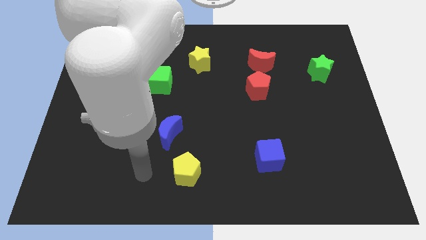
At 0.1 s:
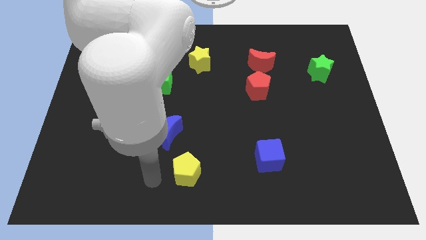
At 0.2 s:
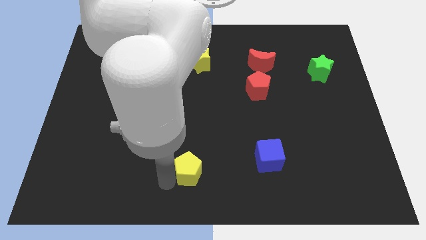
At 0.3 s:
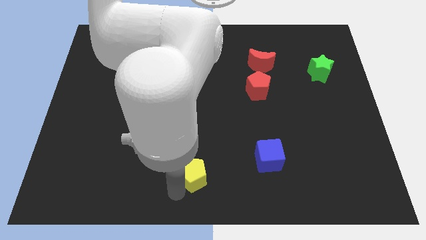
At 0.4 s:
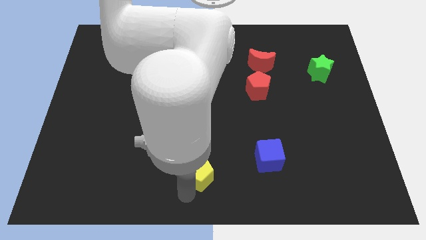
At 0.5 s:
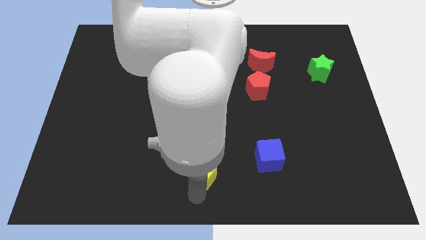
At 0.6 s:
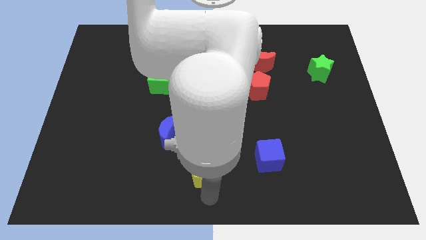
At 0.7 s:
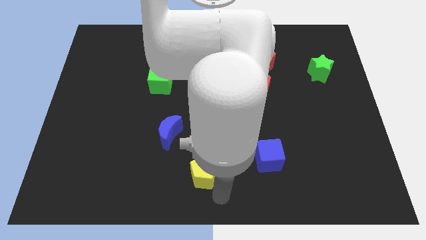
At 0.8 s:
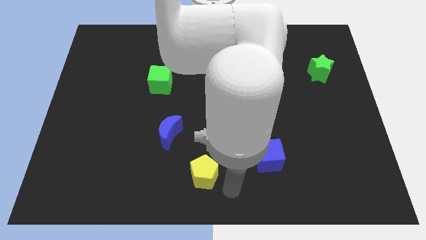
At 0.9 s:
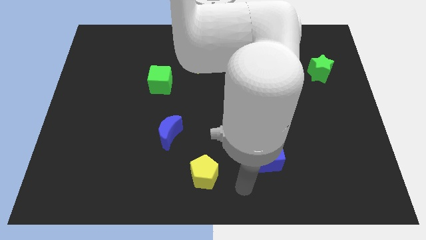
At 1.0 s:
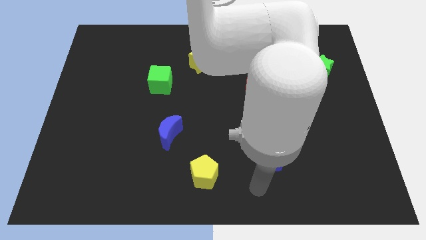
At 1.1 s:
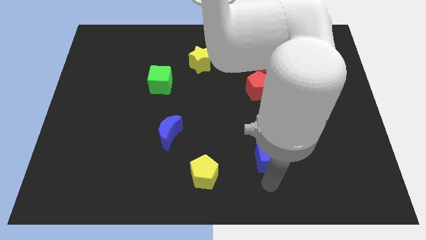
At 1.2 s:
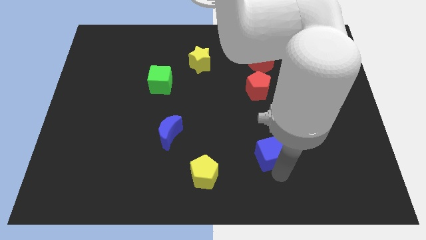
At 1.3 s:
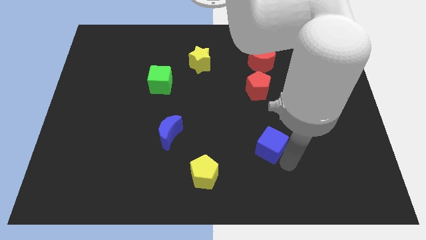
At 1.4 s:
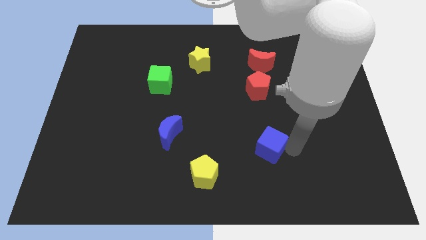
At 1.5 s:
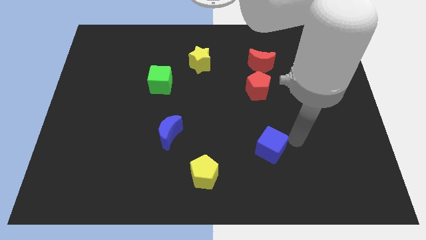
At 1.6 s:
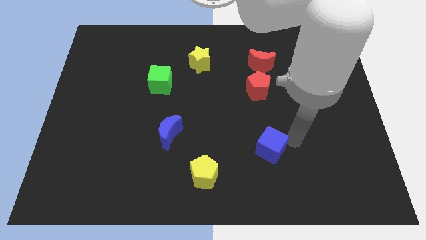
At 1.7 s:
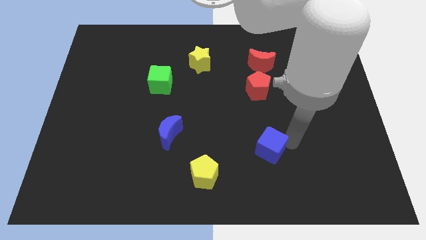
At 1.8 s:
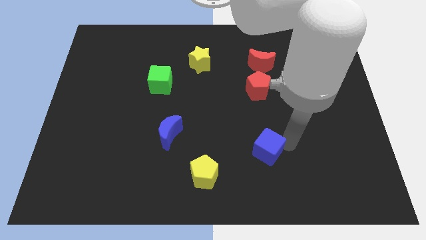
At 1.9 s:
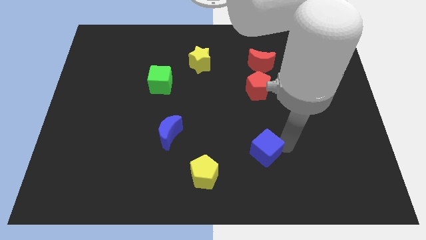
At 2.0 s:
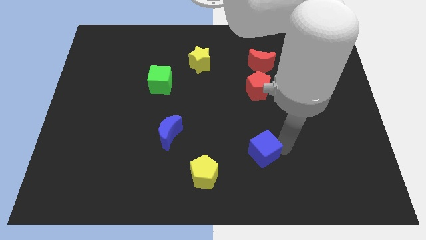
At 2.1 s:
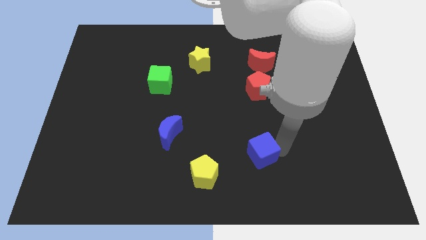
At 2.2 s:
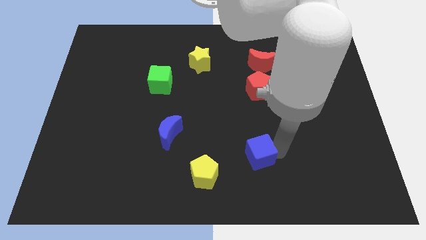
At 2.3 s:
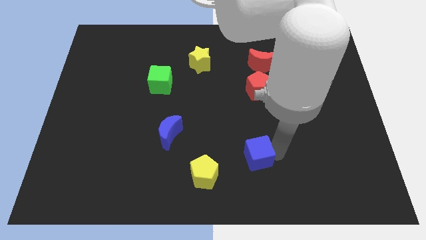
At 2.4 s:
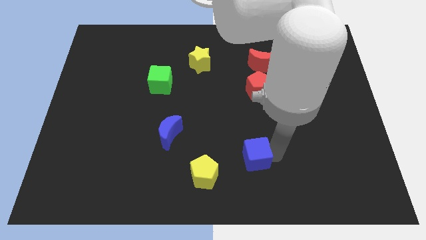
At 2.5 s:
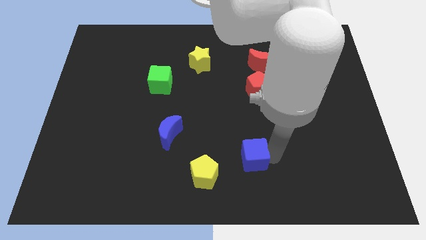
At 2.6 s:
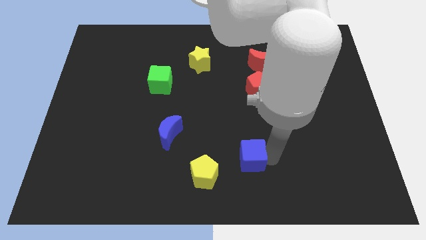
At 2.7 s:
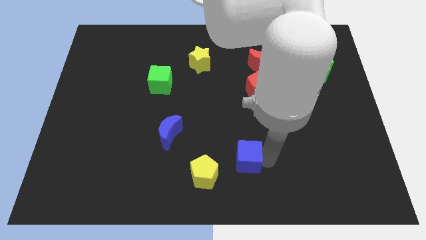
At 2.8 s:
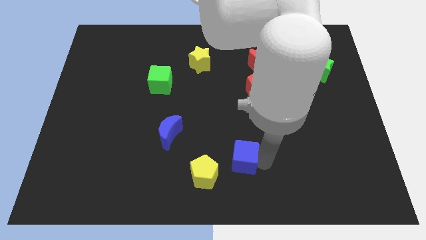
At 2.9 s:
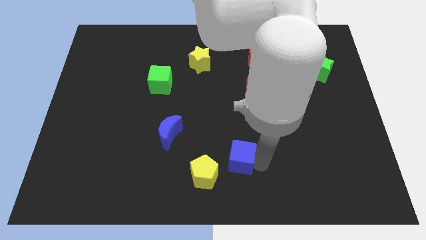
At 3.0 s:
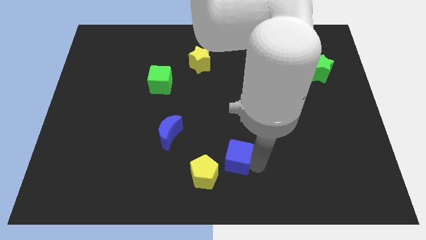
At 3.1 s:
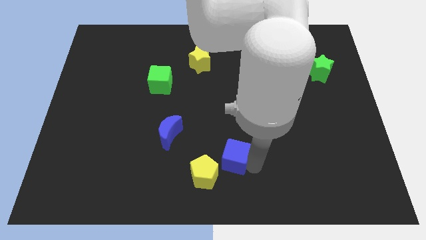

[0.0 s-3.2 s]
slide the blue cube left somewhat

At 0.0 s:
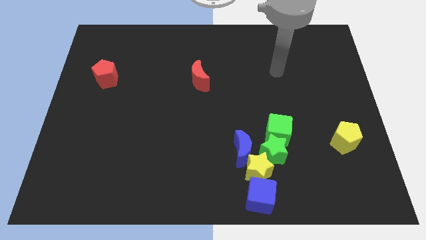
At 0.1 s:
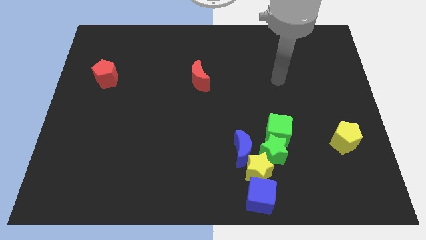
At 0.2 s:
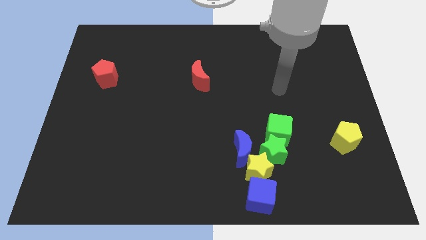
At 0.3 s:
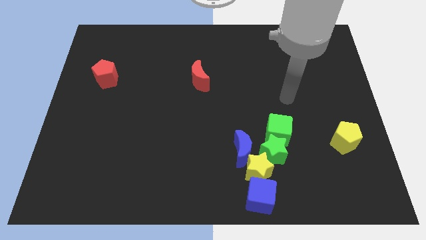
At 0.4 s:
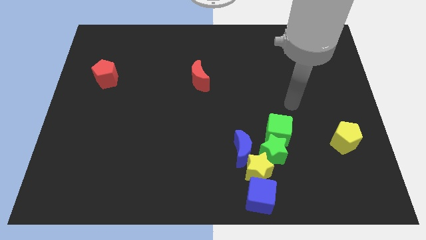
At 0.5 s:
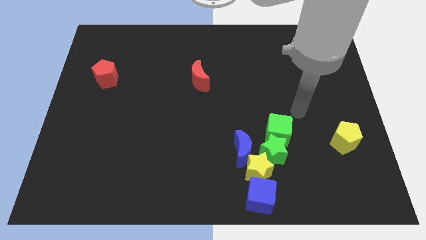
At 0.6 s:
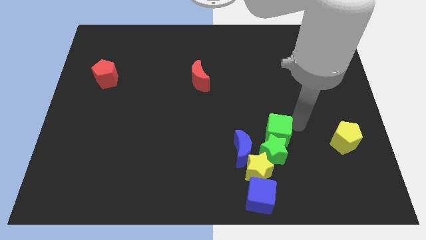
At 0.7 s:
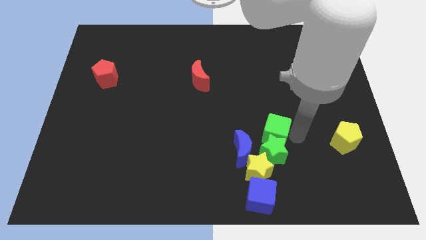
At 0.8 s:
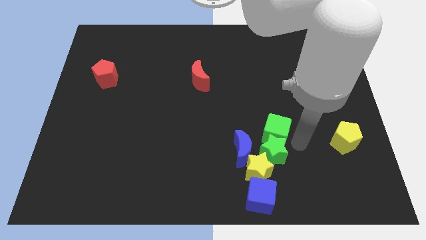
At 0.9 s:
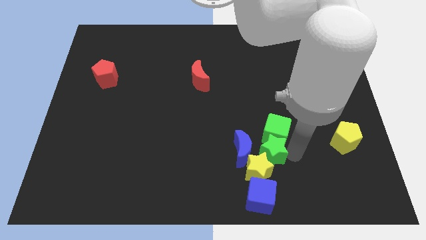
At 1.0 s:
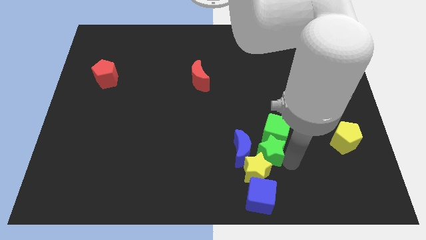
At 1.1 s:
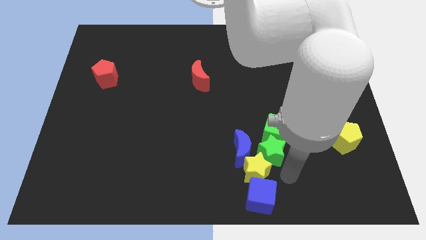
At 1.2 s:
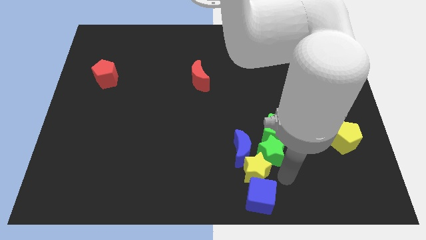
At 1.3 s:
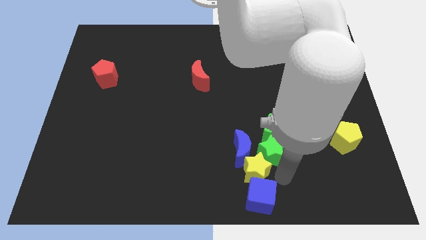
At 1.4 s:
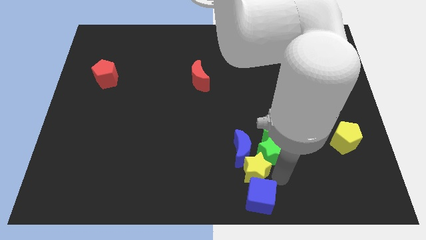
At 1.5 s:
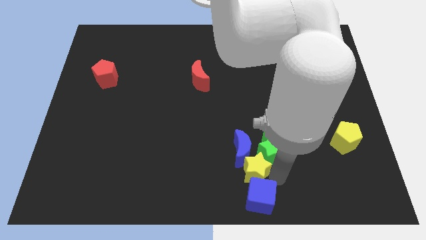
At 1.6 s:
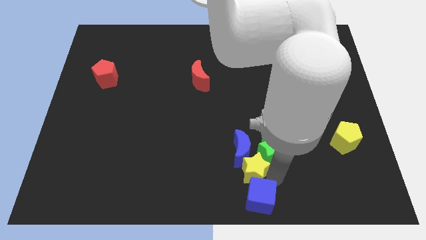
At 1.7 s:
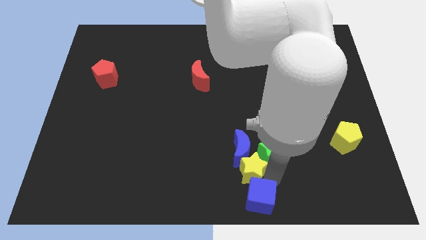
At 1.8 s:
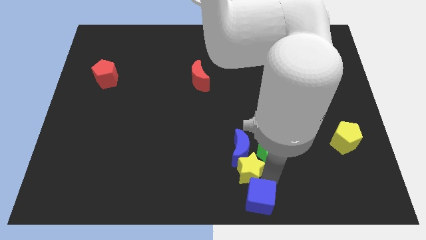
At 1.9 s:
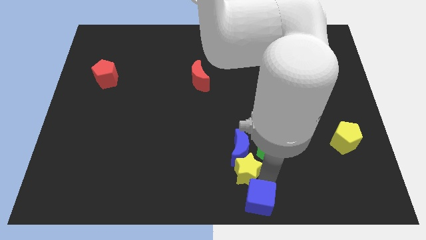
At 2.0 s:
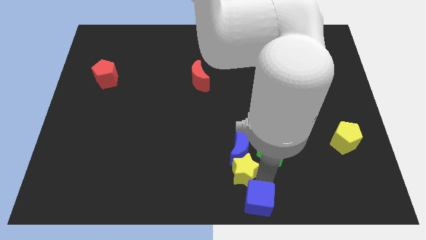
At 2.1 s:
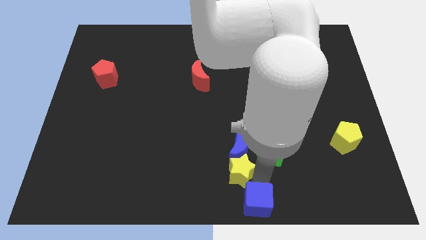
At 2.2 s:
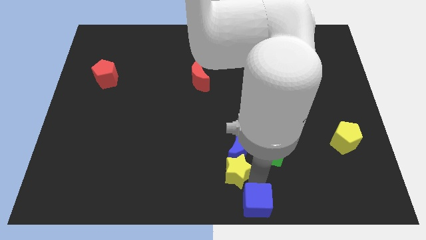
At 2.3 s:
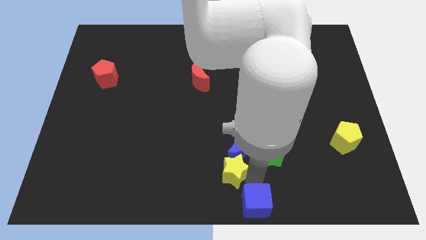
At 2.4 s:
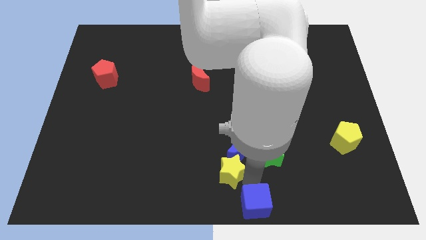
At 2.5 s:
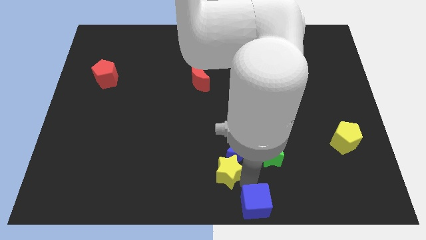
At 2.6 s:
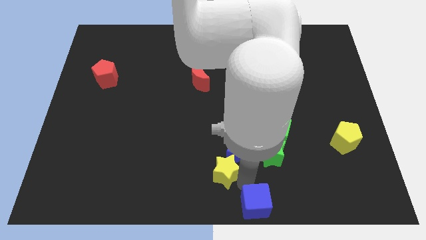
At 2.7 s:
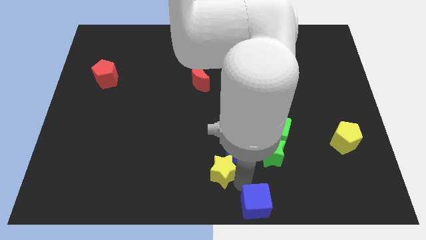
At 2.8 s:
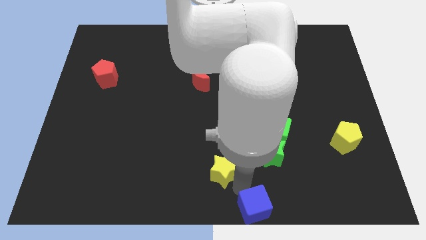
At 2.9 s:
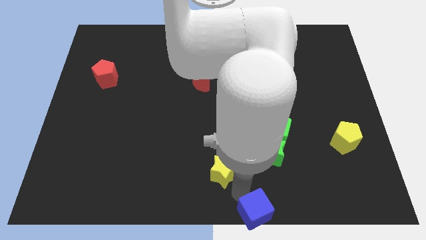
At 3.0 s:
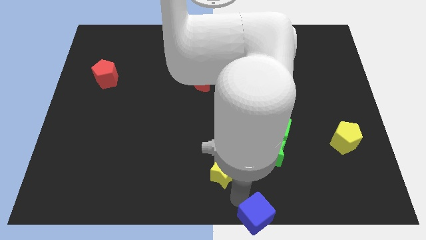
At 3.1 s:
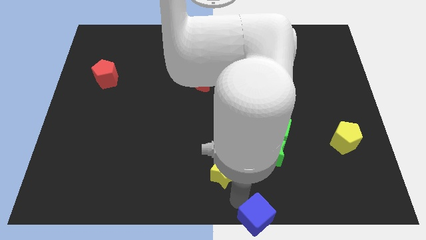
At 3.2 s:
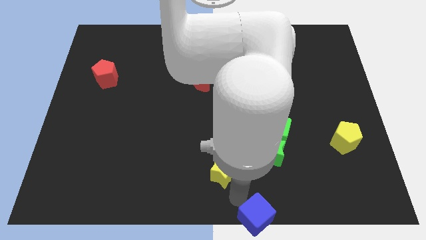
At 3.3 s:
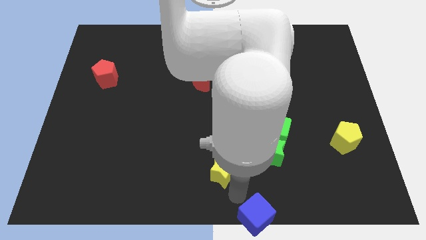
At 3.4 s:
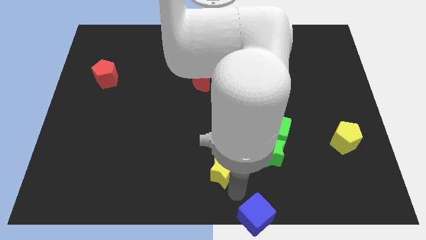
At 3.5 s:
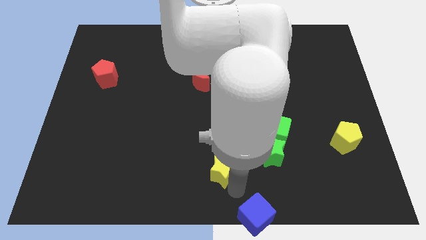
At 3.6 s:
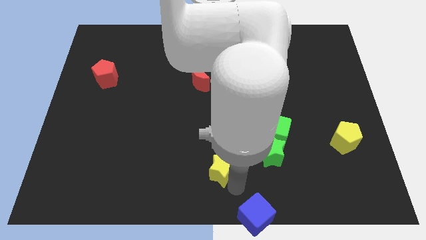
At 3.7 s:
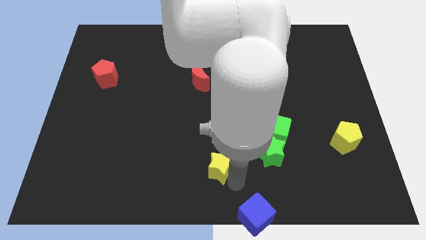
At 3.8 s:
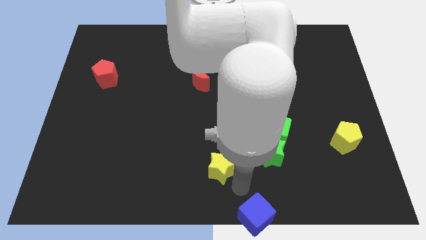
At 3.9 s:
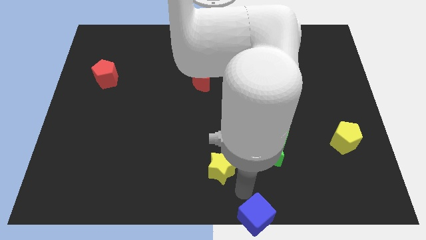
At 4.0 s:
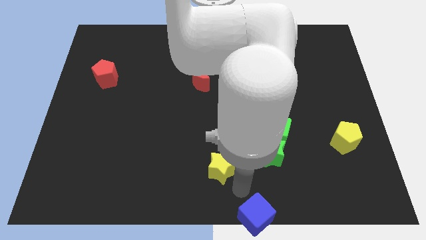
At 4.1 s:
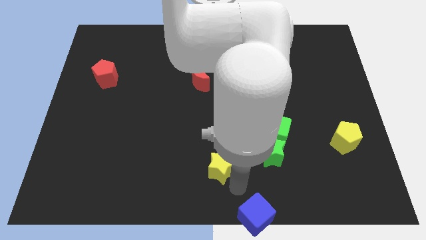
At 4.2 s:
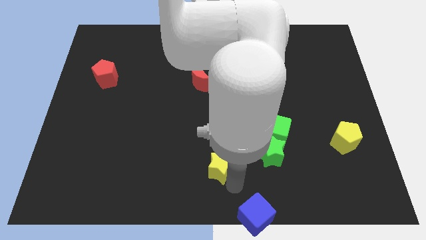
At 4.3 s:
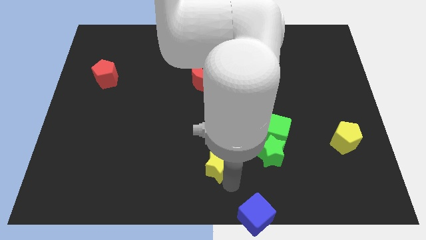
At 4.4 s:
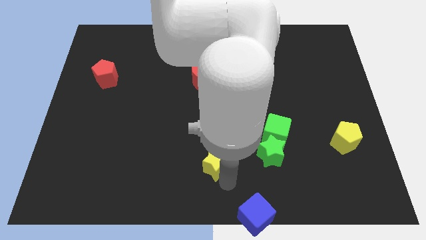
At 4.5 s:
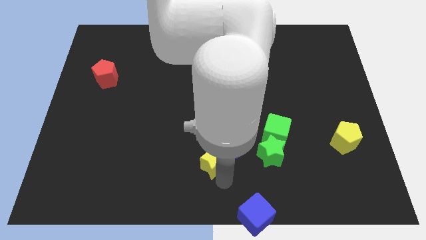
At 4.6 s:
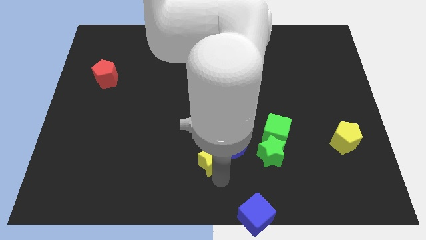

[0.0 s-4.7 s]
slide the yellow star somewhat upwards and then to the left
